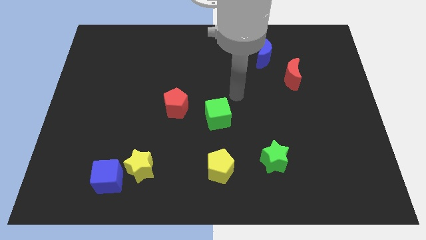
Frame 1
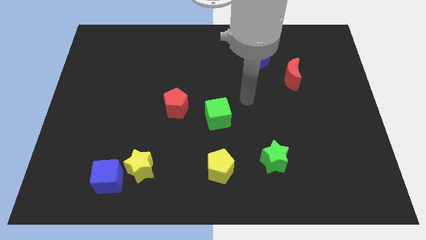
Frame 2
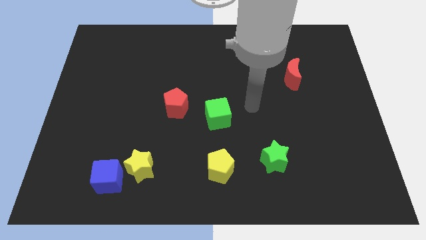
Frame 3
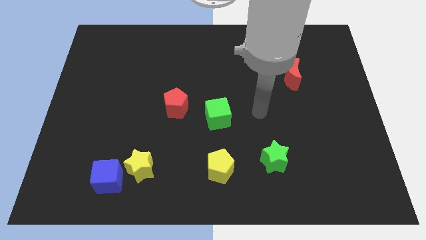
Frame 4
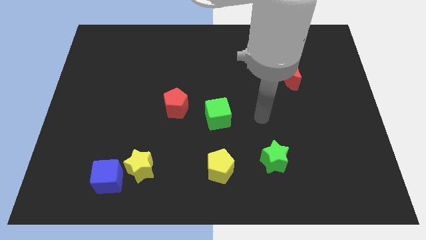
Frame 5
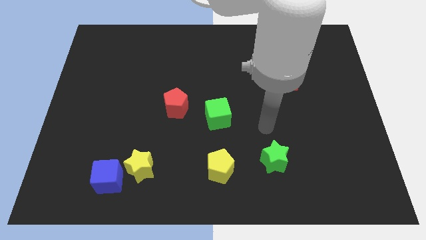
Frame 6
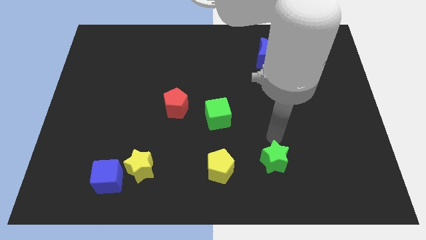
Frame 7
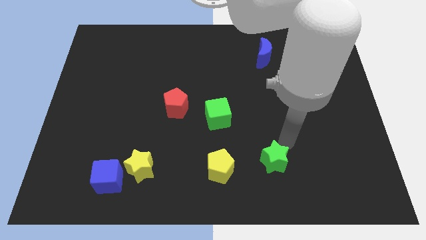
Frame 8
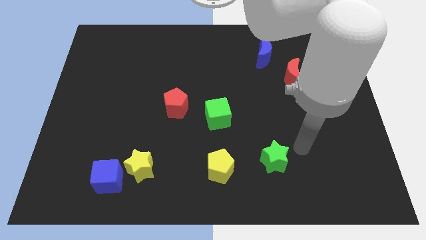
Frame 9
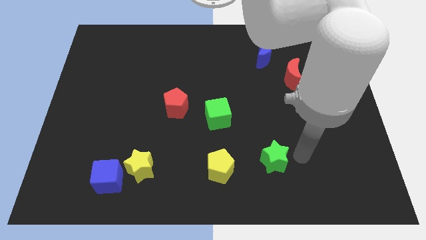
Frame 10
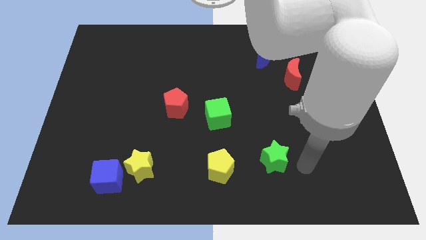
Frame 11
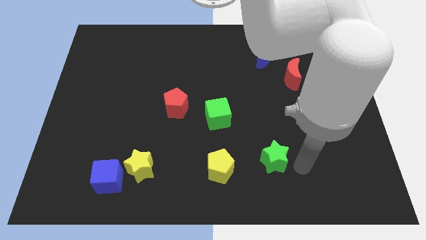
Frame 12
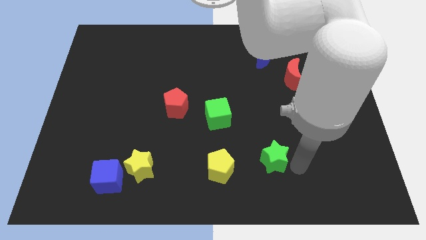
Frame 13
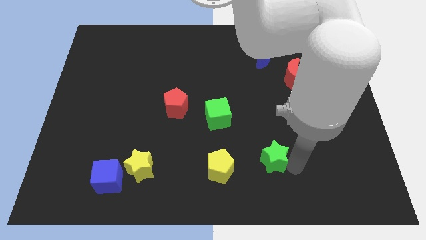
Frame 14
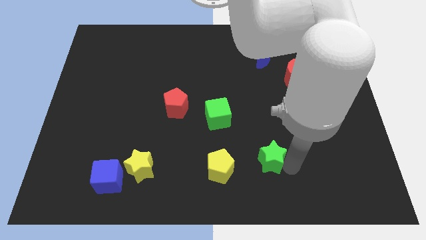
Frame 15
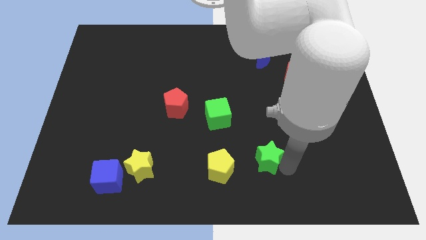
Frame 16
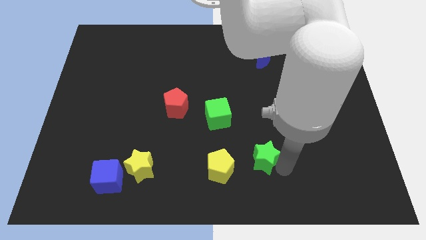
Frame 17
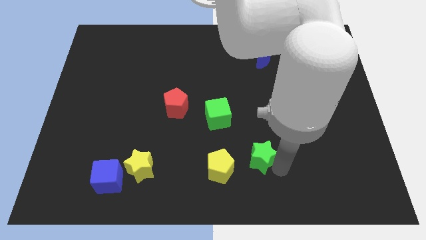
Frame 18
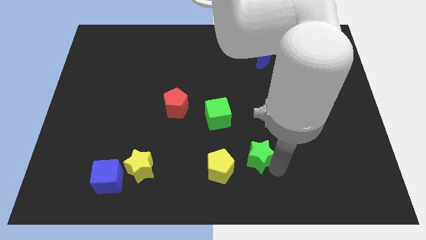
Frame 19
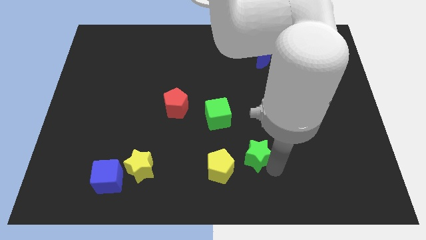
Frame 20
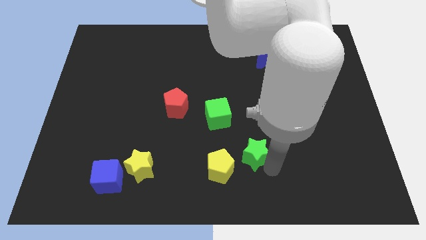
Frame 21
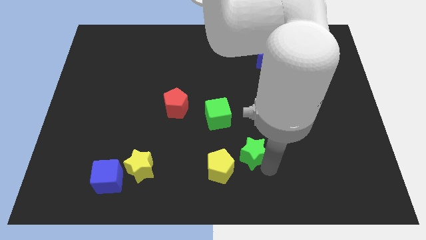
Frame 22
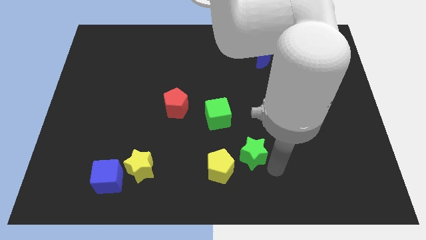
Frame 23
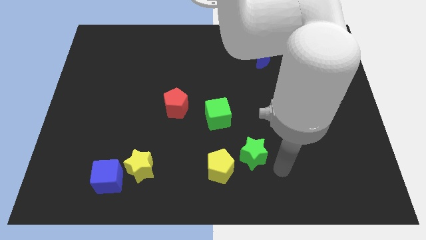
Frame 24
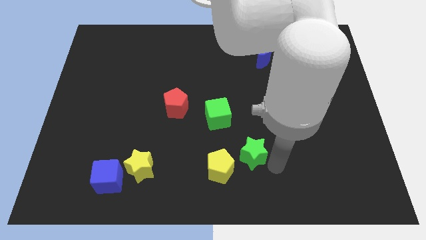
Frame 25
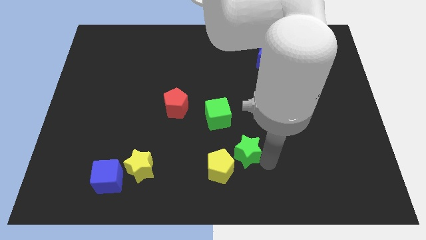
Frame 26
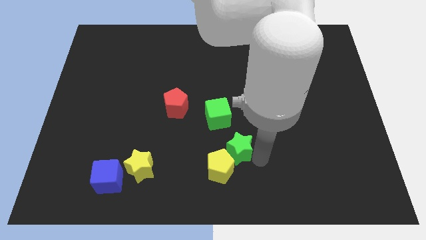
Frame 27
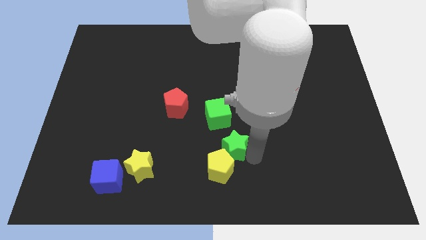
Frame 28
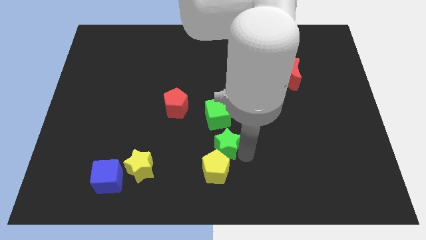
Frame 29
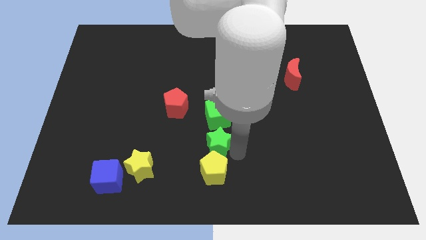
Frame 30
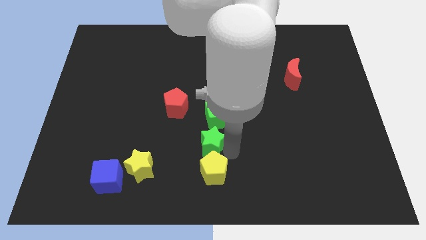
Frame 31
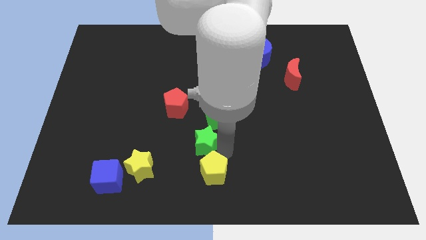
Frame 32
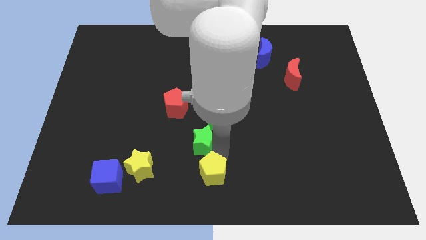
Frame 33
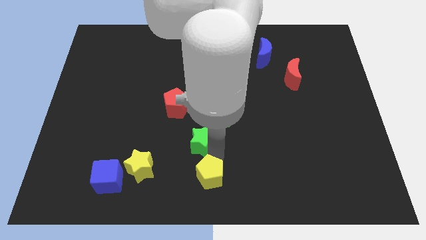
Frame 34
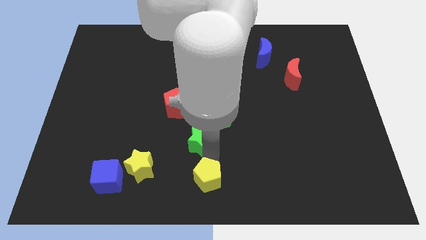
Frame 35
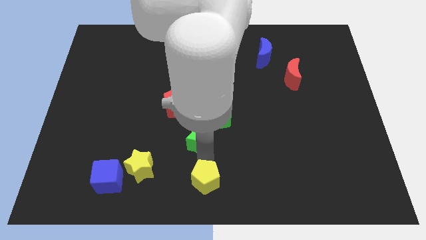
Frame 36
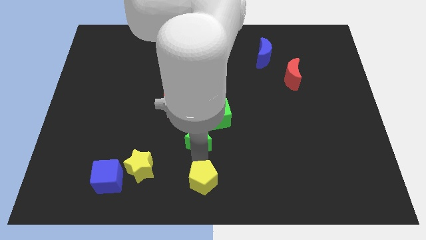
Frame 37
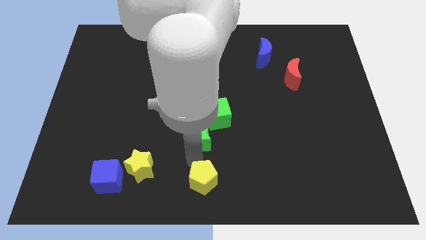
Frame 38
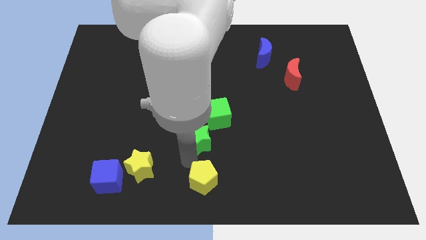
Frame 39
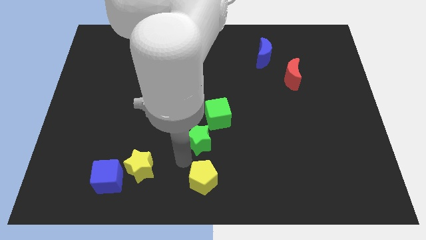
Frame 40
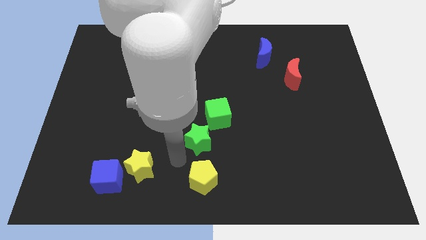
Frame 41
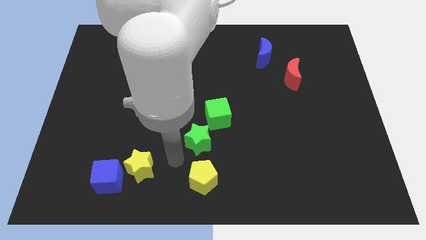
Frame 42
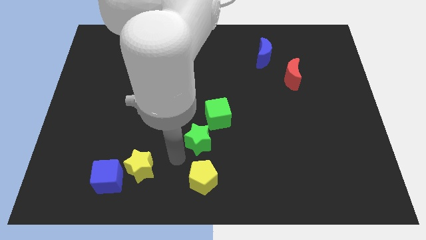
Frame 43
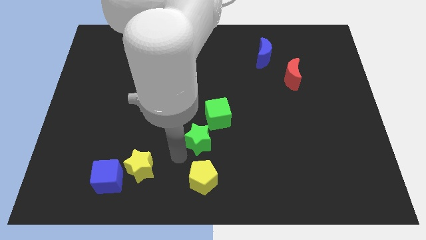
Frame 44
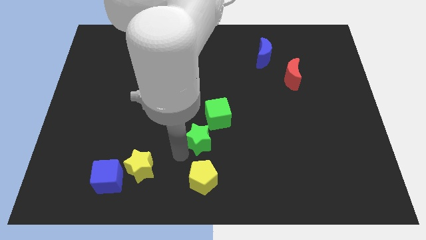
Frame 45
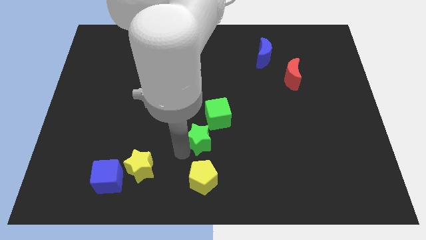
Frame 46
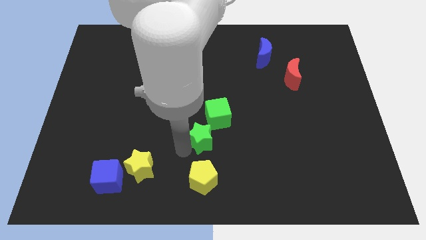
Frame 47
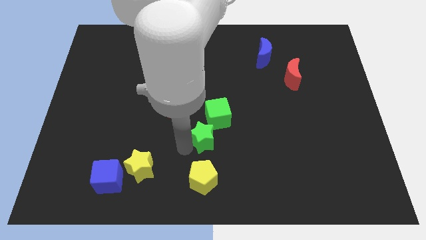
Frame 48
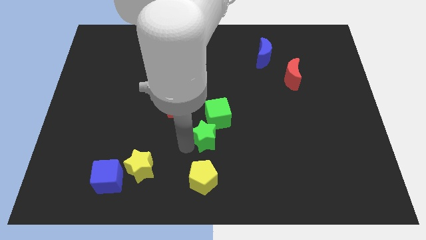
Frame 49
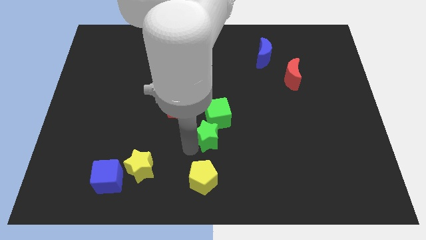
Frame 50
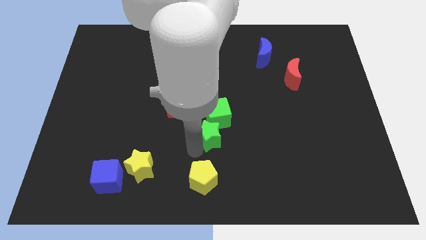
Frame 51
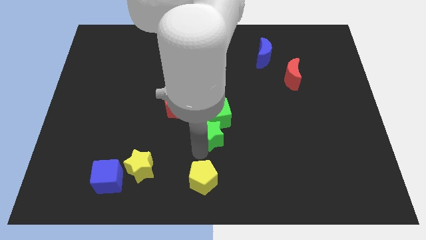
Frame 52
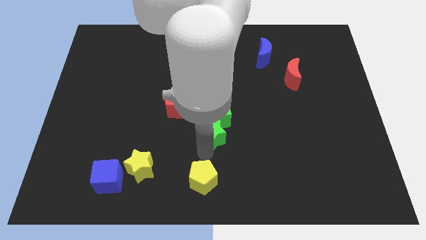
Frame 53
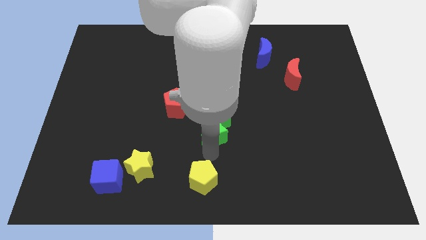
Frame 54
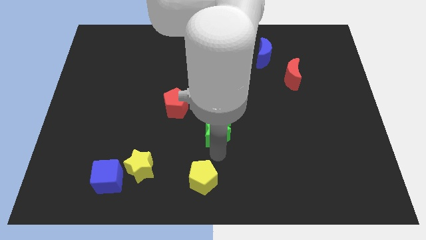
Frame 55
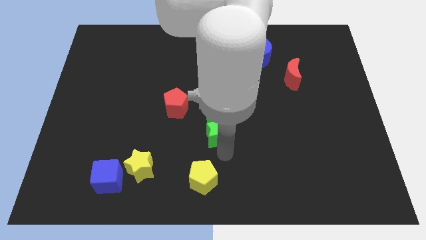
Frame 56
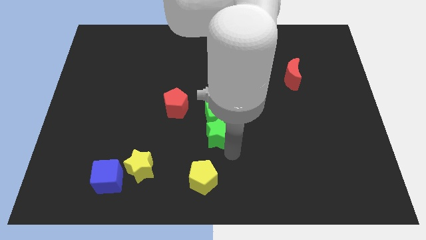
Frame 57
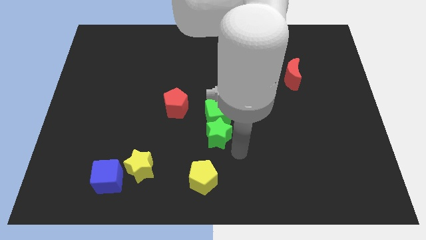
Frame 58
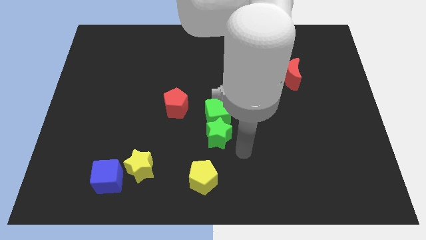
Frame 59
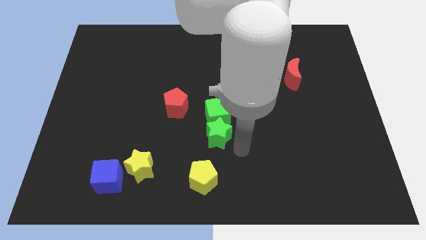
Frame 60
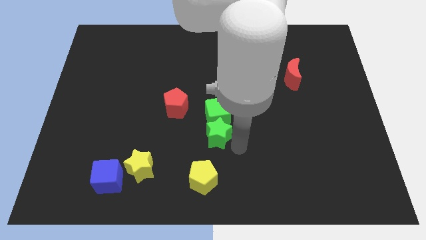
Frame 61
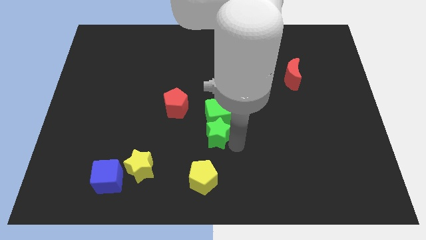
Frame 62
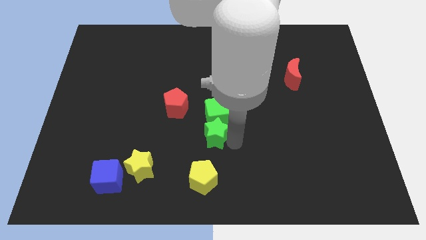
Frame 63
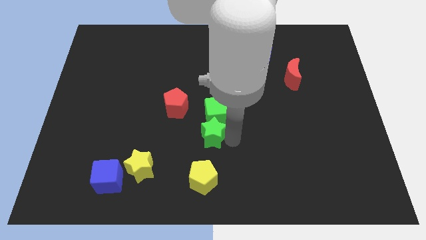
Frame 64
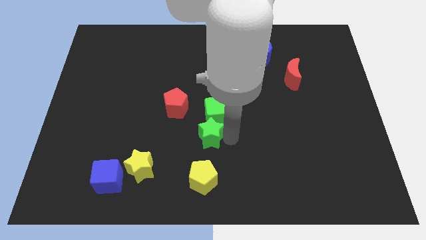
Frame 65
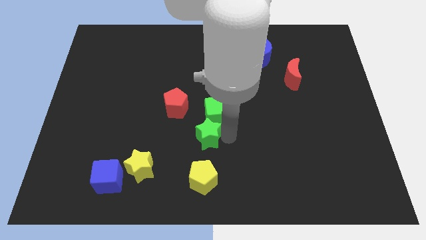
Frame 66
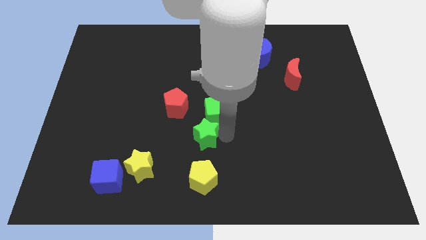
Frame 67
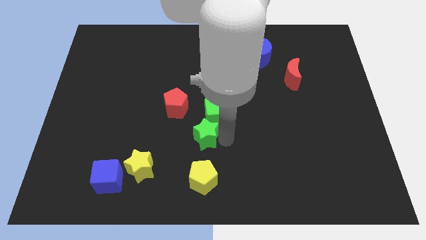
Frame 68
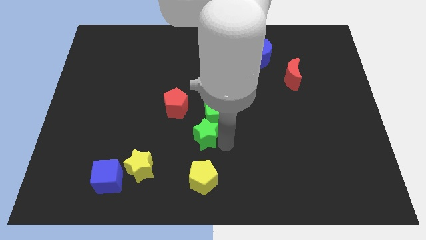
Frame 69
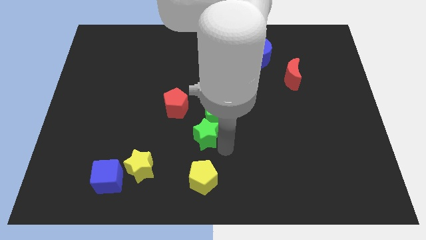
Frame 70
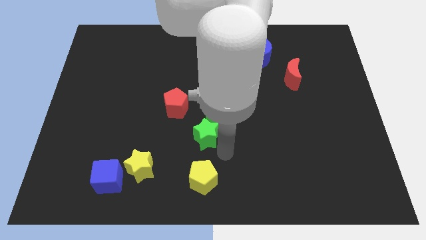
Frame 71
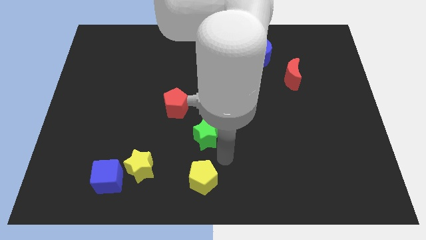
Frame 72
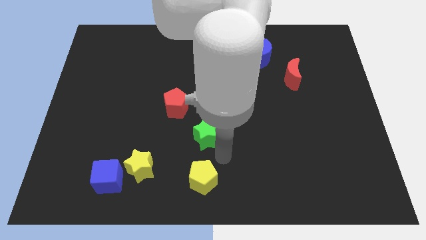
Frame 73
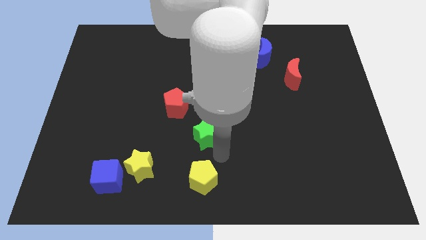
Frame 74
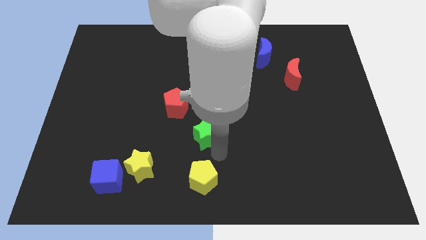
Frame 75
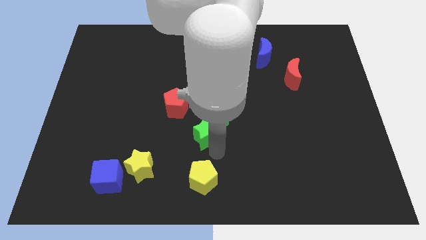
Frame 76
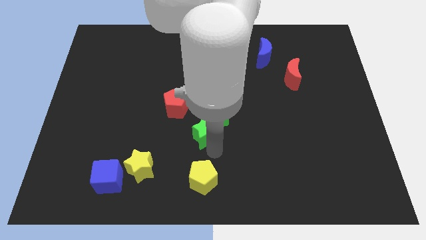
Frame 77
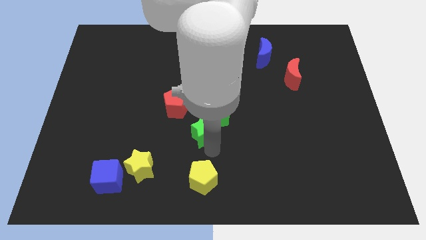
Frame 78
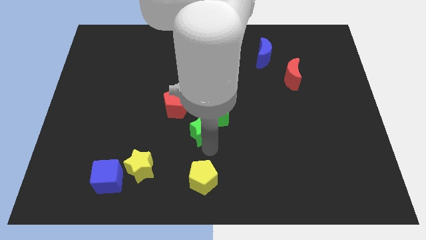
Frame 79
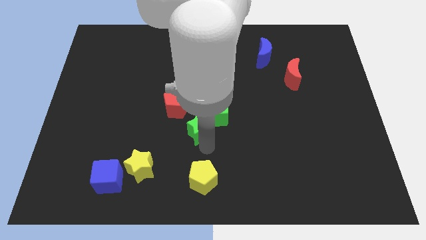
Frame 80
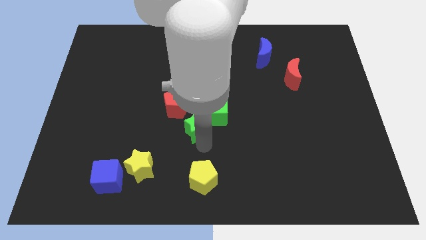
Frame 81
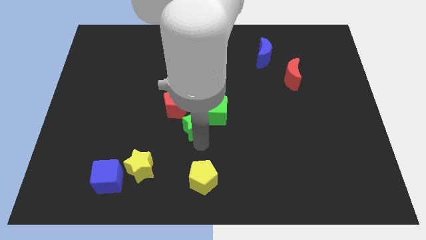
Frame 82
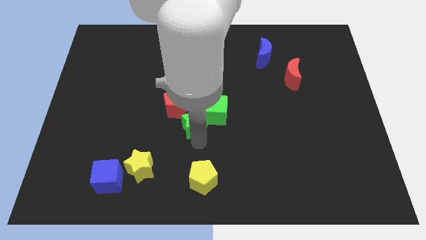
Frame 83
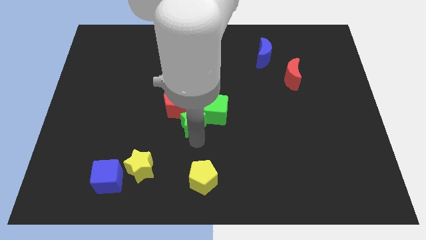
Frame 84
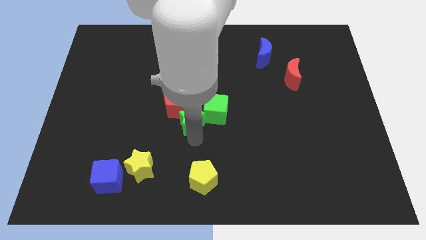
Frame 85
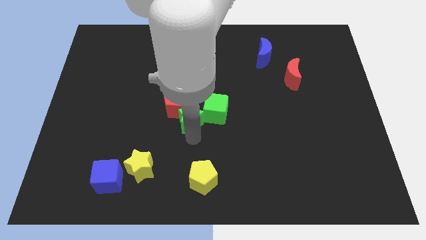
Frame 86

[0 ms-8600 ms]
slide the green star towards the red pentagon
